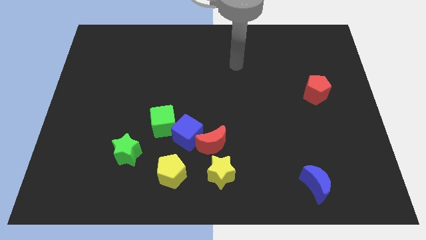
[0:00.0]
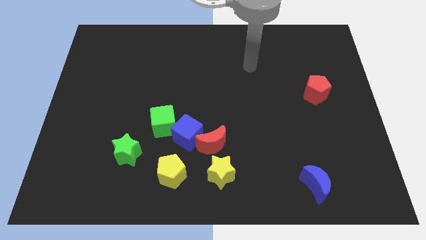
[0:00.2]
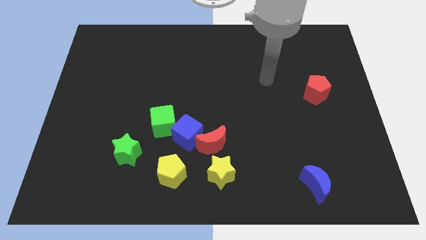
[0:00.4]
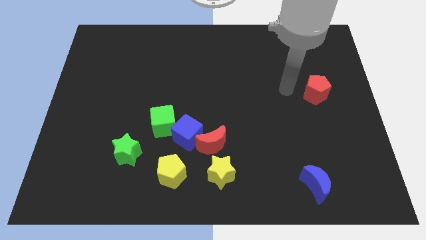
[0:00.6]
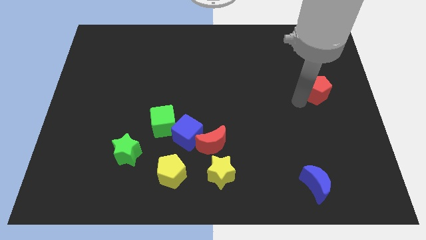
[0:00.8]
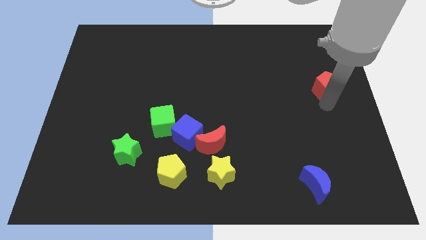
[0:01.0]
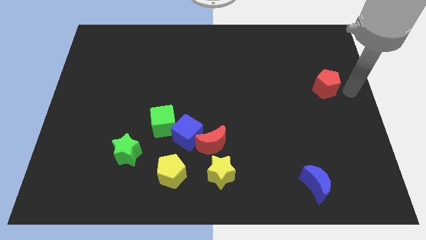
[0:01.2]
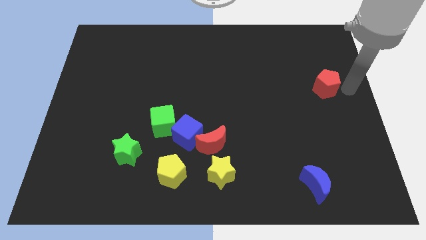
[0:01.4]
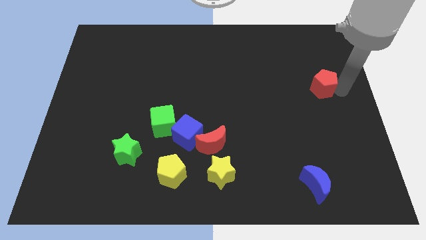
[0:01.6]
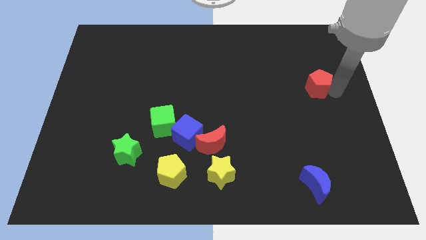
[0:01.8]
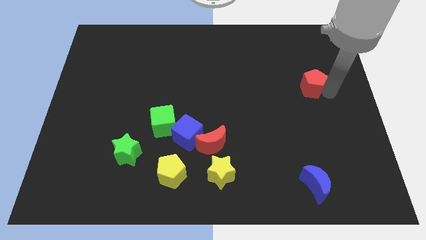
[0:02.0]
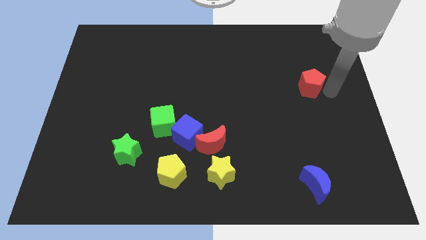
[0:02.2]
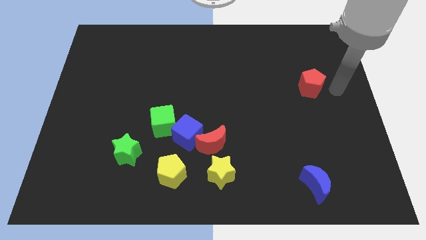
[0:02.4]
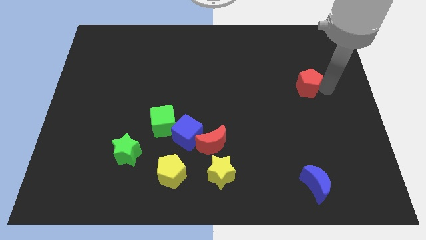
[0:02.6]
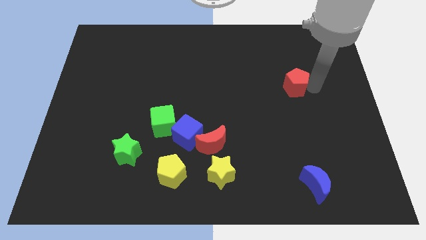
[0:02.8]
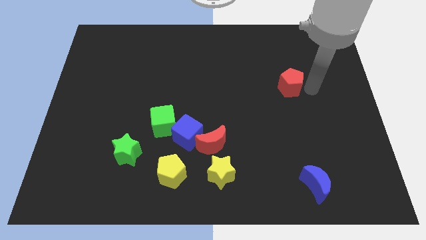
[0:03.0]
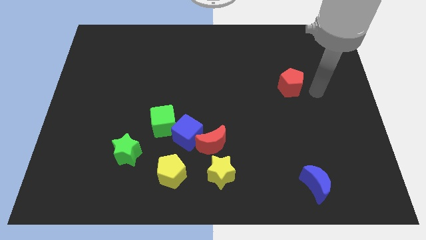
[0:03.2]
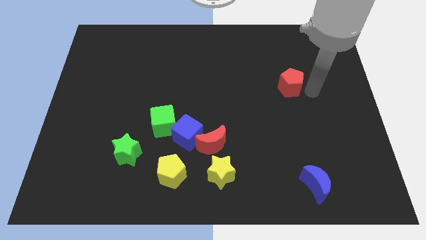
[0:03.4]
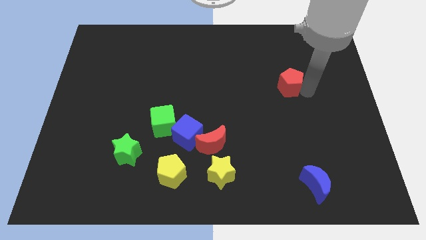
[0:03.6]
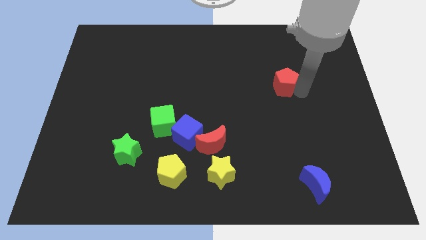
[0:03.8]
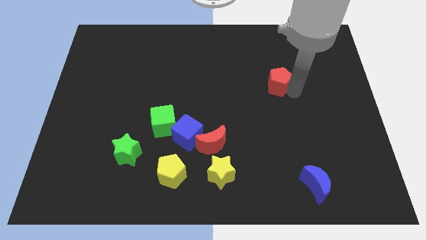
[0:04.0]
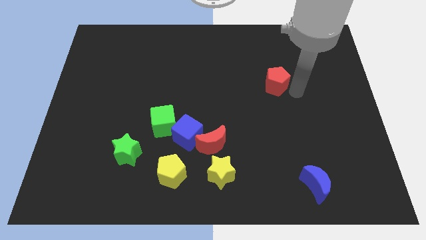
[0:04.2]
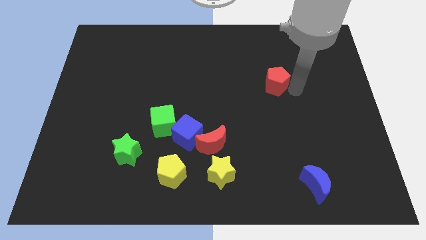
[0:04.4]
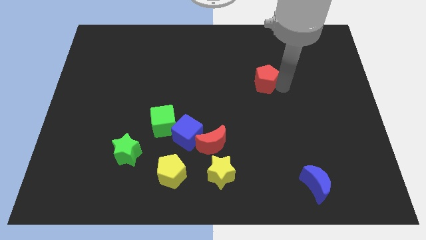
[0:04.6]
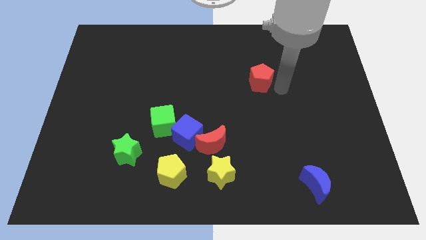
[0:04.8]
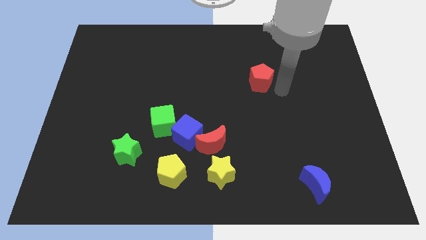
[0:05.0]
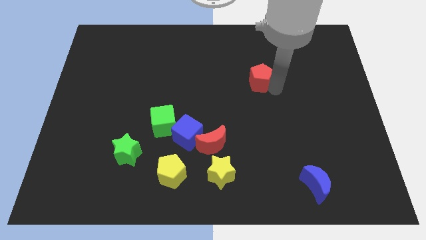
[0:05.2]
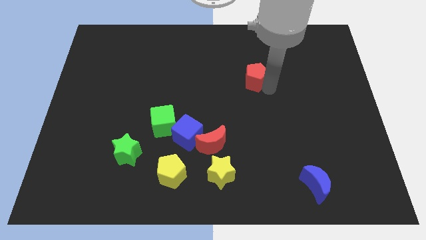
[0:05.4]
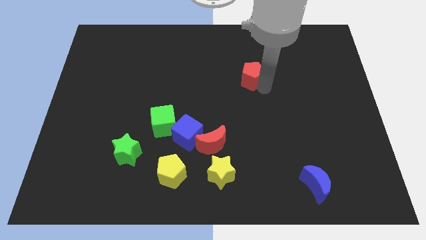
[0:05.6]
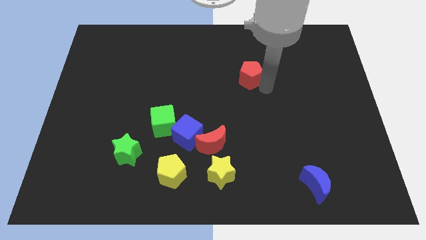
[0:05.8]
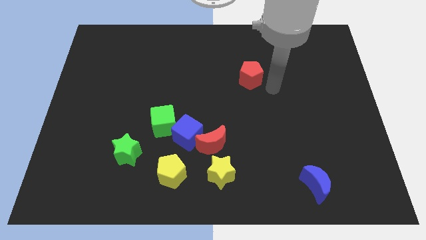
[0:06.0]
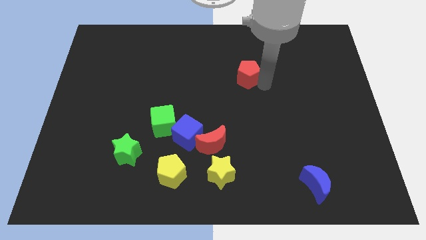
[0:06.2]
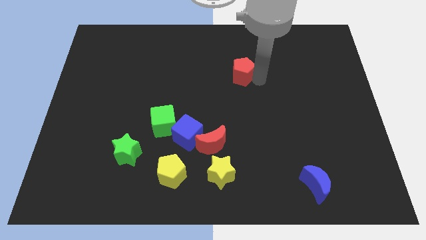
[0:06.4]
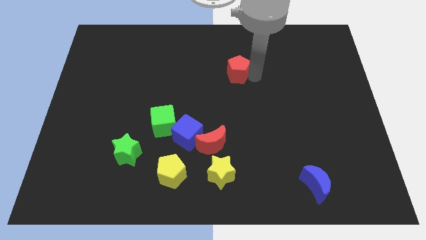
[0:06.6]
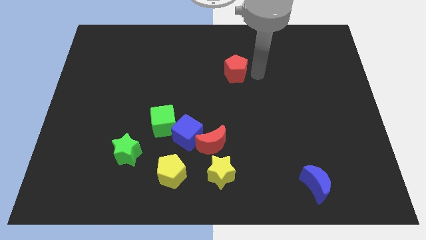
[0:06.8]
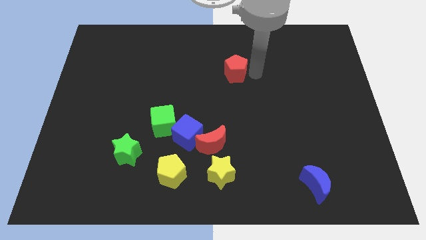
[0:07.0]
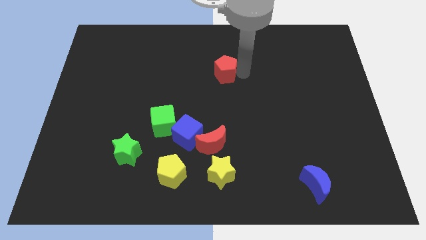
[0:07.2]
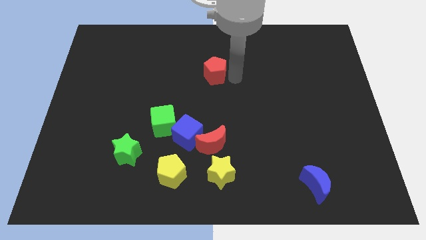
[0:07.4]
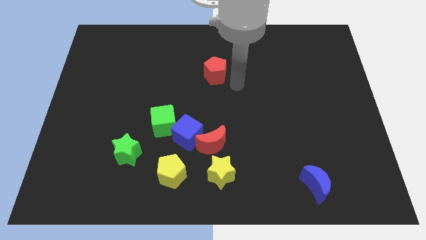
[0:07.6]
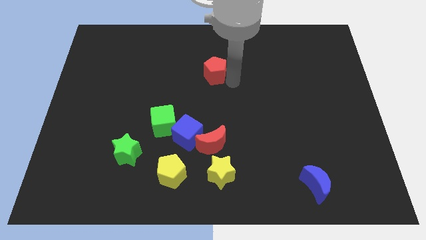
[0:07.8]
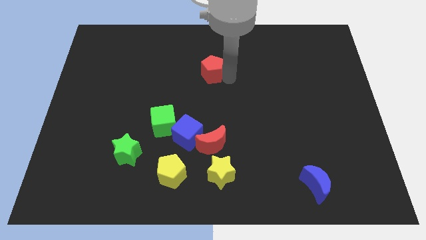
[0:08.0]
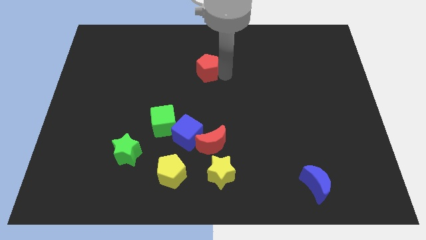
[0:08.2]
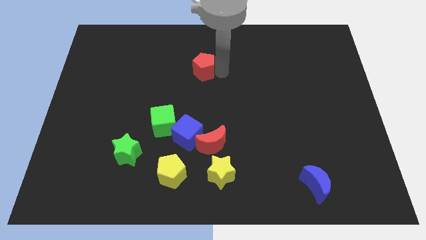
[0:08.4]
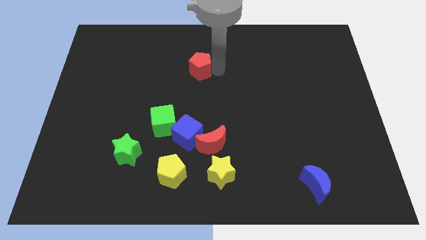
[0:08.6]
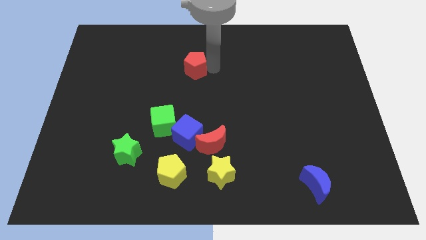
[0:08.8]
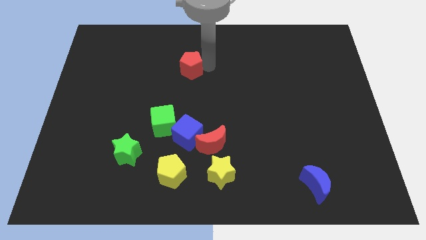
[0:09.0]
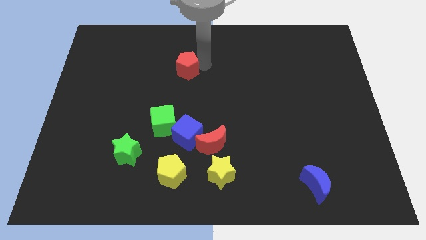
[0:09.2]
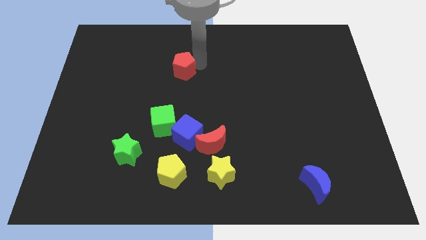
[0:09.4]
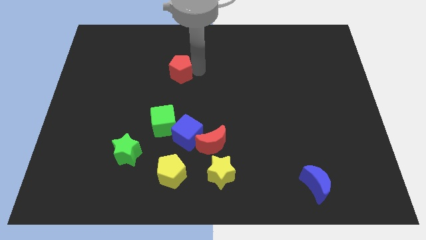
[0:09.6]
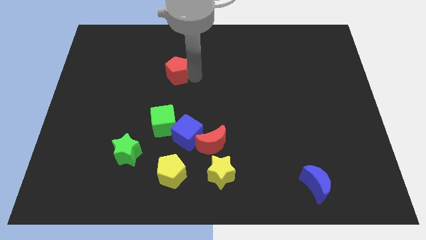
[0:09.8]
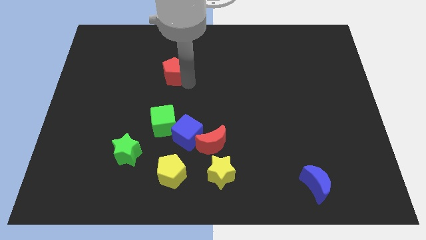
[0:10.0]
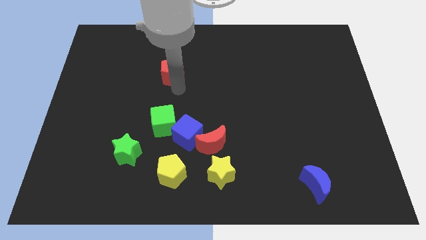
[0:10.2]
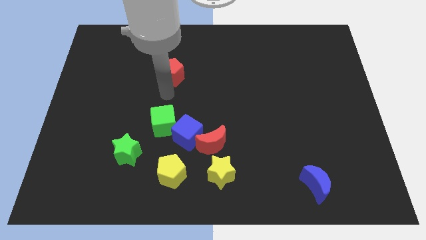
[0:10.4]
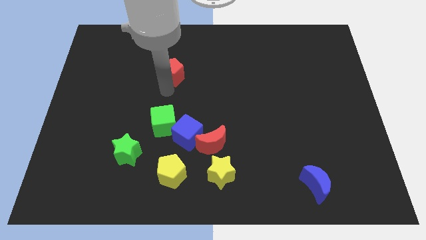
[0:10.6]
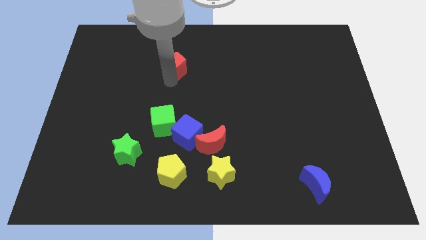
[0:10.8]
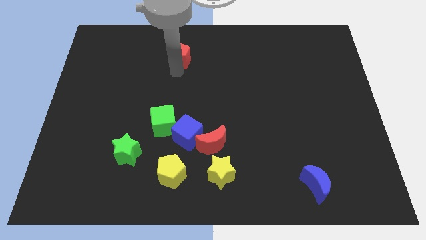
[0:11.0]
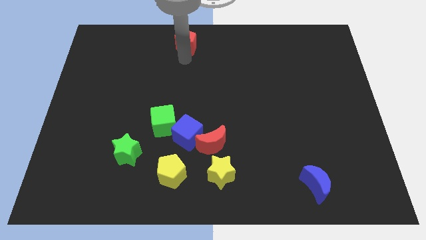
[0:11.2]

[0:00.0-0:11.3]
put the red pentagon to the top side

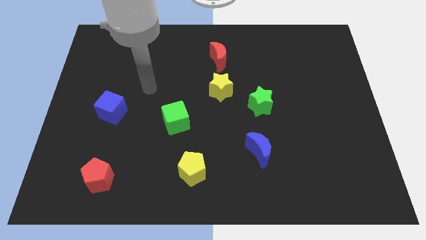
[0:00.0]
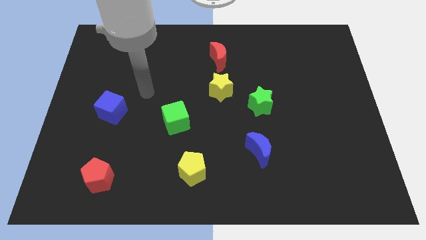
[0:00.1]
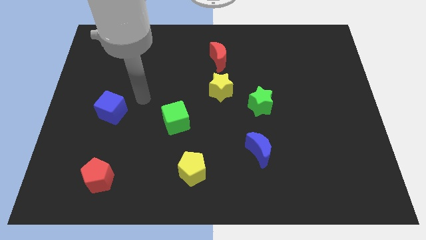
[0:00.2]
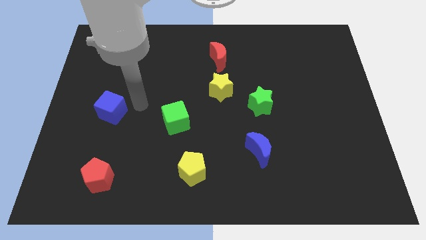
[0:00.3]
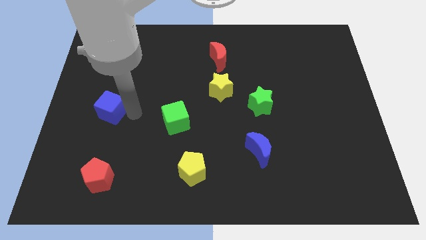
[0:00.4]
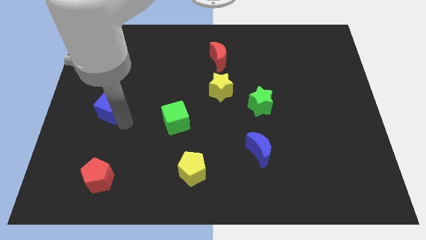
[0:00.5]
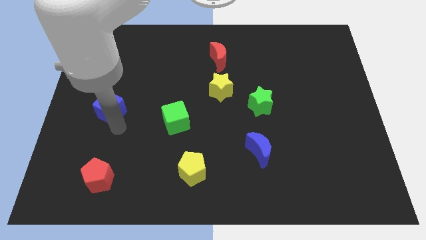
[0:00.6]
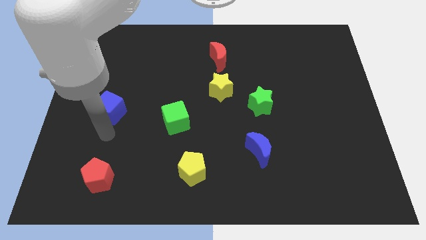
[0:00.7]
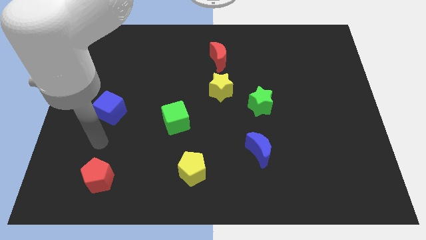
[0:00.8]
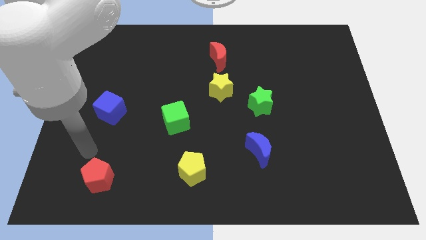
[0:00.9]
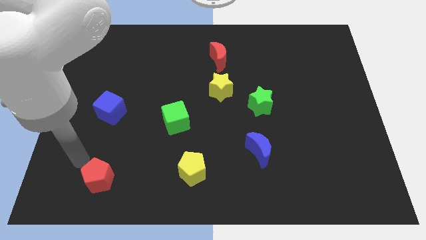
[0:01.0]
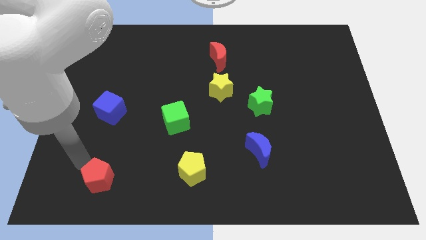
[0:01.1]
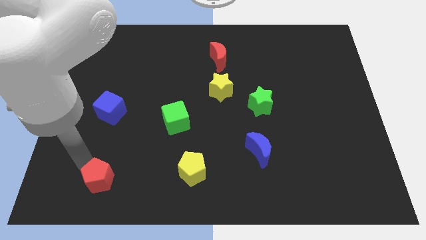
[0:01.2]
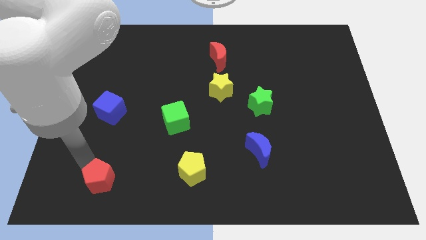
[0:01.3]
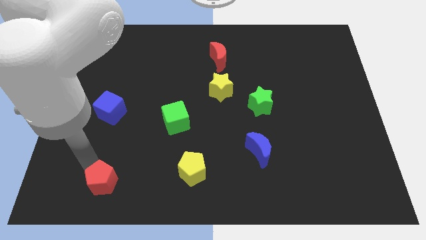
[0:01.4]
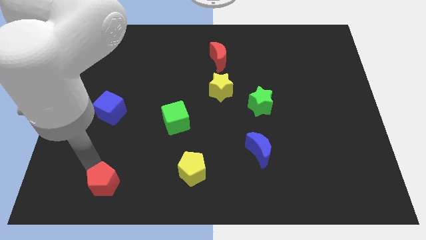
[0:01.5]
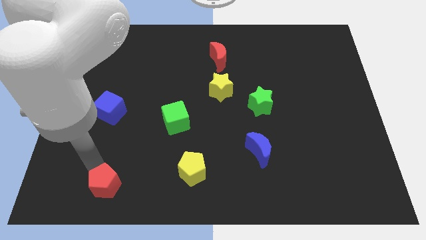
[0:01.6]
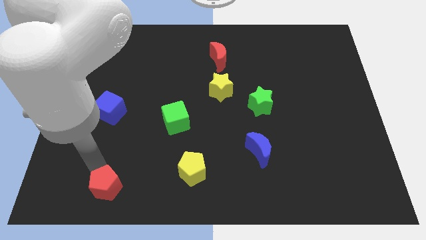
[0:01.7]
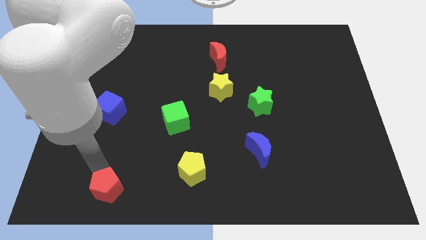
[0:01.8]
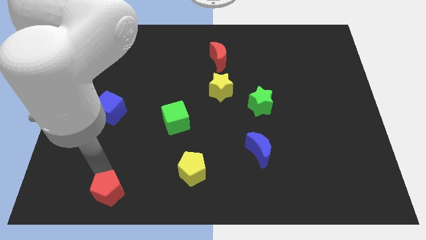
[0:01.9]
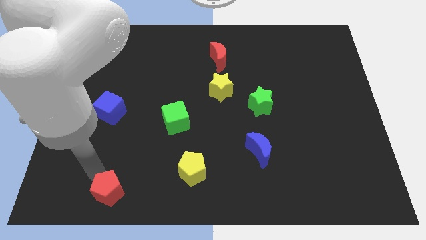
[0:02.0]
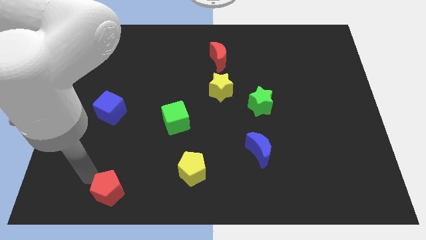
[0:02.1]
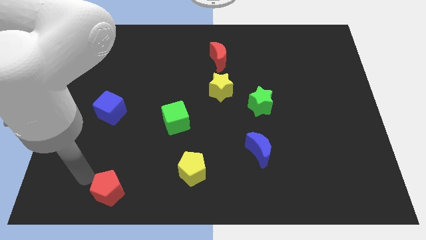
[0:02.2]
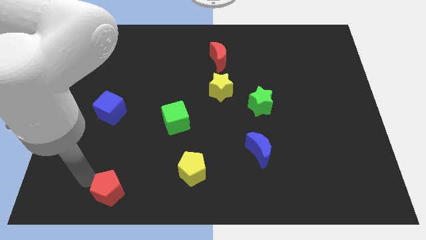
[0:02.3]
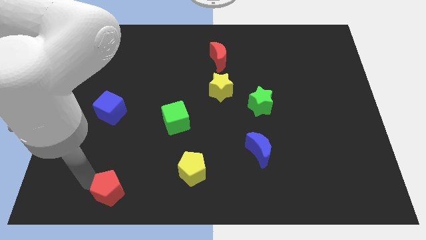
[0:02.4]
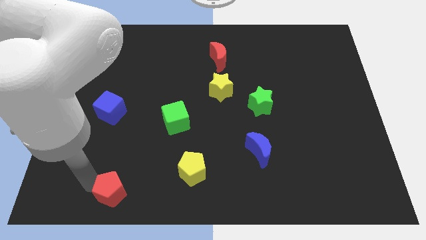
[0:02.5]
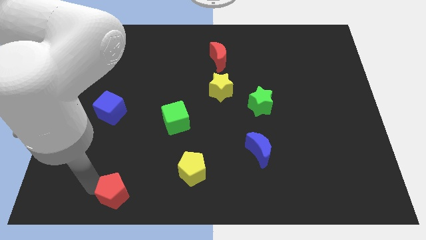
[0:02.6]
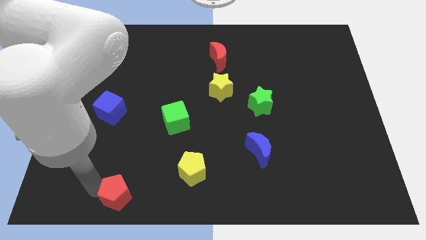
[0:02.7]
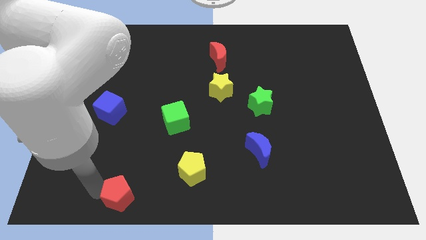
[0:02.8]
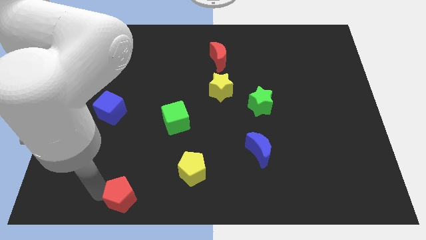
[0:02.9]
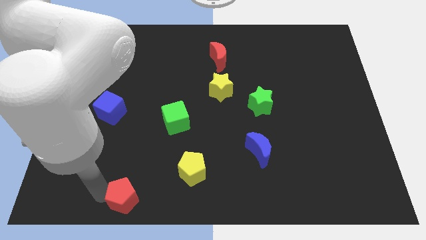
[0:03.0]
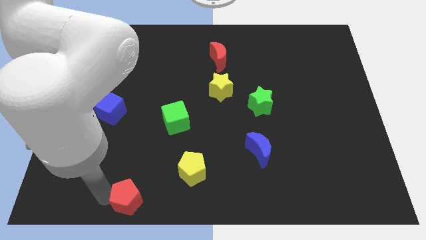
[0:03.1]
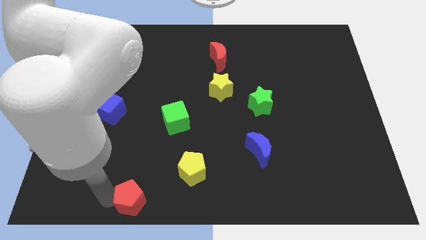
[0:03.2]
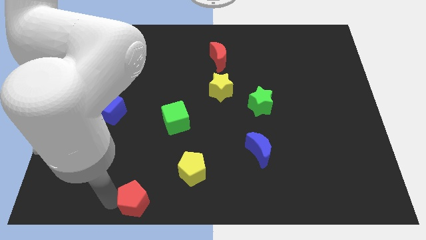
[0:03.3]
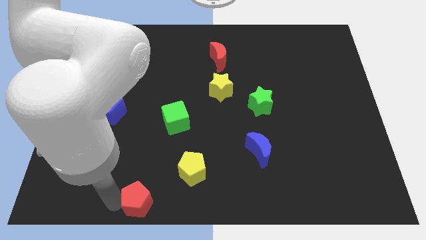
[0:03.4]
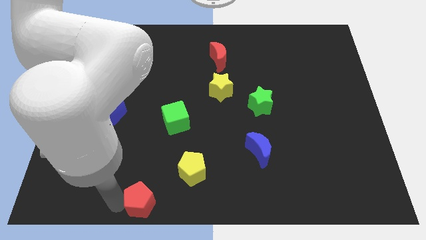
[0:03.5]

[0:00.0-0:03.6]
push the red pentagon to the bottom side
